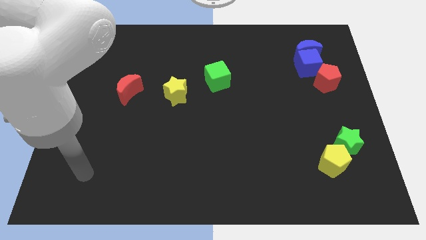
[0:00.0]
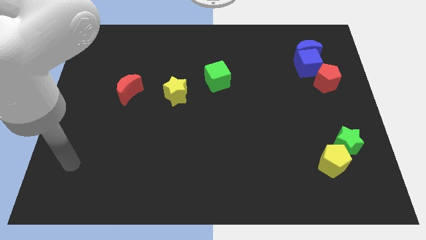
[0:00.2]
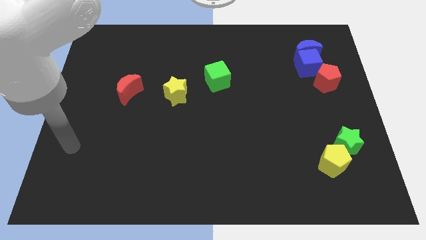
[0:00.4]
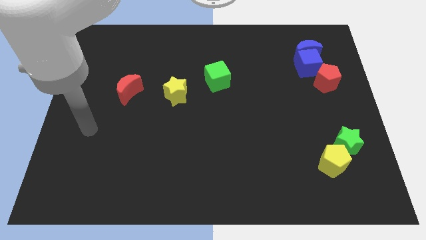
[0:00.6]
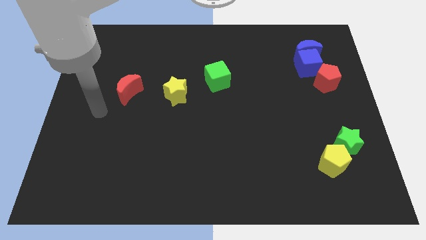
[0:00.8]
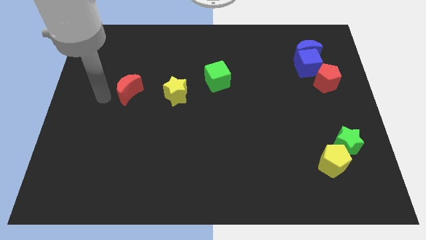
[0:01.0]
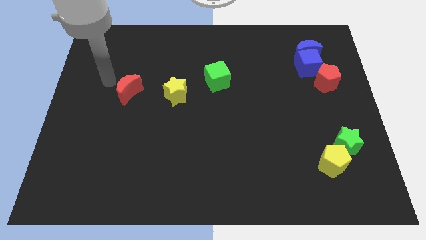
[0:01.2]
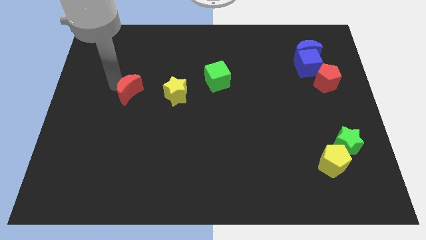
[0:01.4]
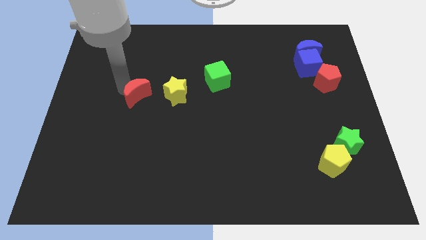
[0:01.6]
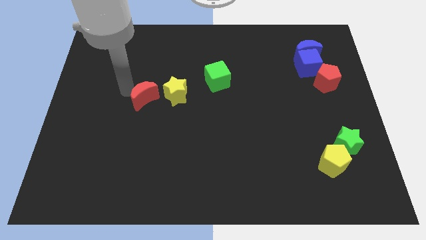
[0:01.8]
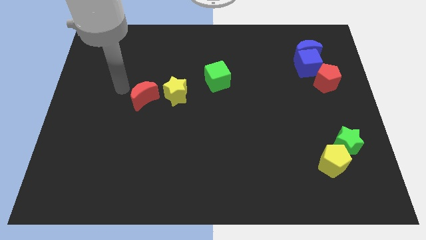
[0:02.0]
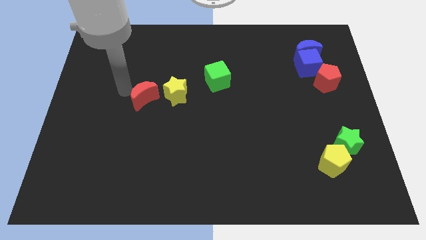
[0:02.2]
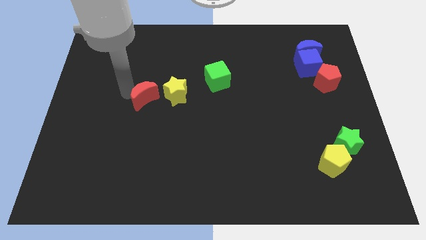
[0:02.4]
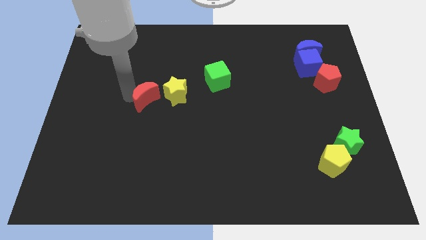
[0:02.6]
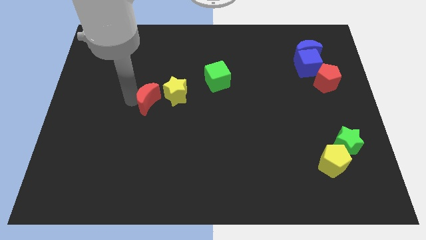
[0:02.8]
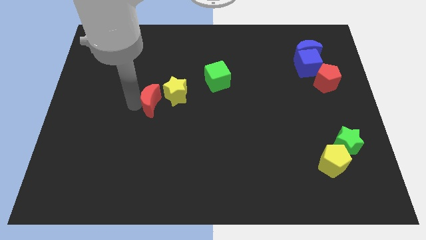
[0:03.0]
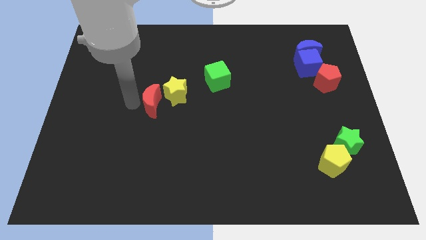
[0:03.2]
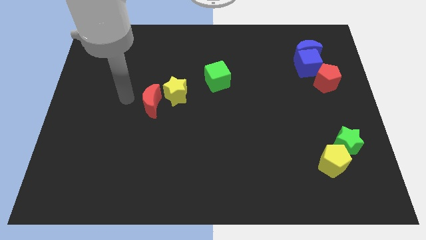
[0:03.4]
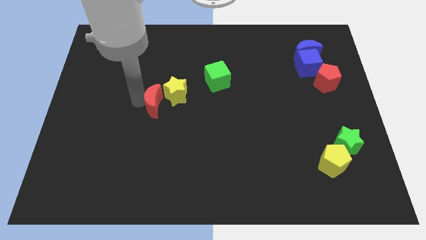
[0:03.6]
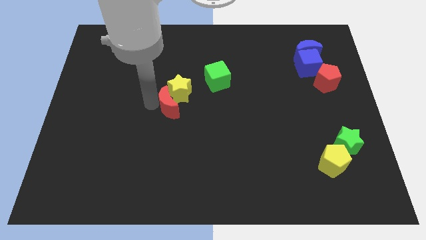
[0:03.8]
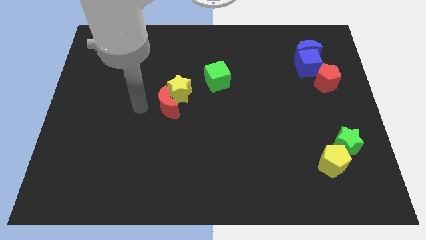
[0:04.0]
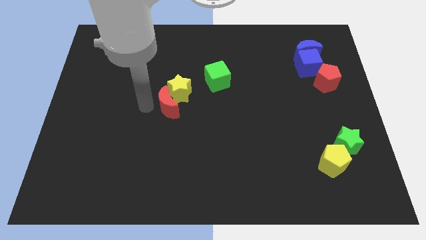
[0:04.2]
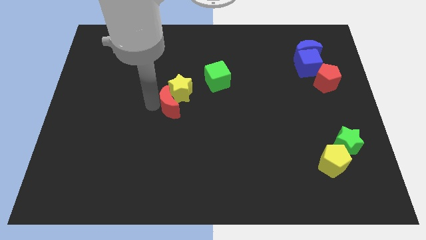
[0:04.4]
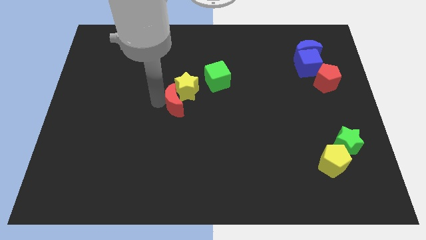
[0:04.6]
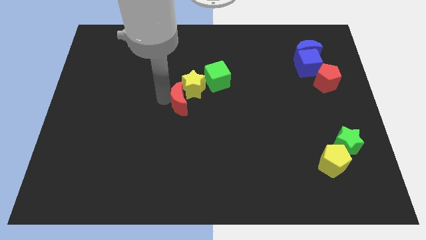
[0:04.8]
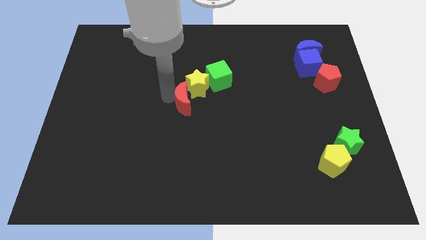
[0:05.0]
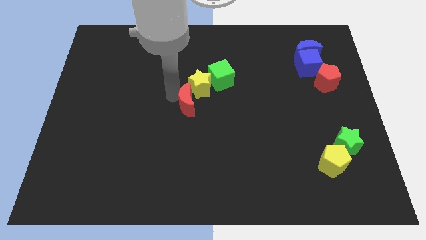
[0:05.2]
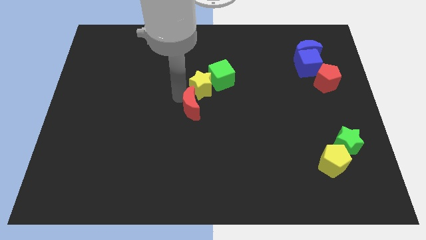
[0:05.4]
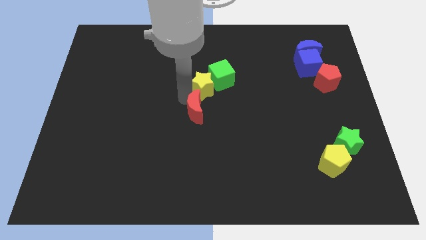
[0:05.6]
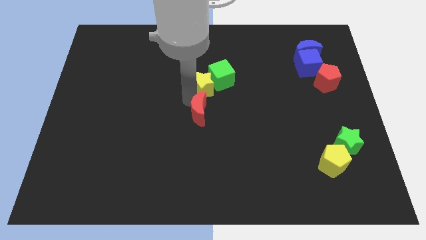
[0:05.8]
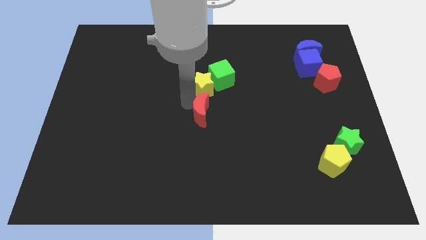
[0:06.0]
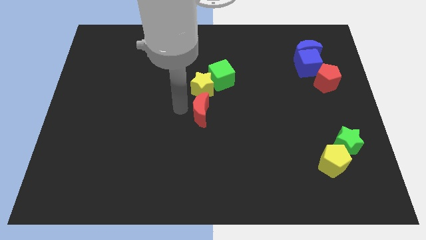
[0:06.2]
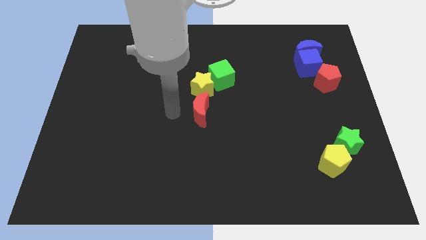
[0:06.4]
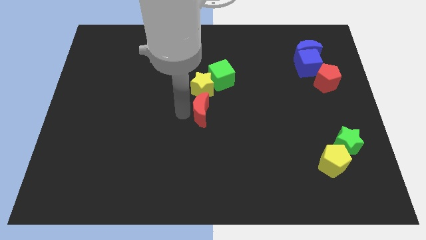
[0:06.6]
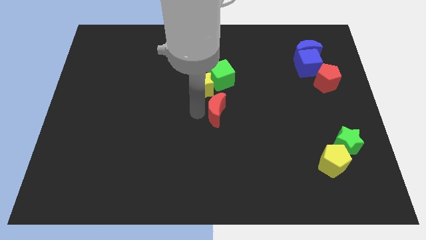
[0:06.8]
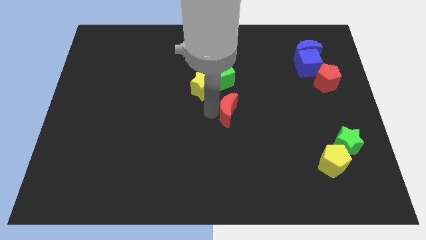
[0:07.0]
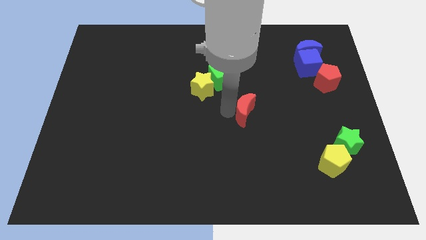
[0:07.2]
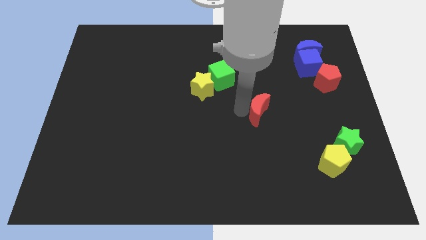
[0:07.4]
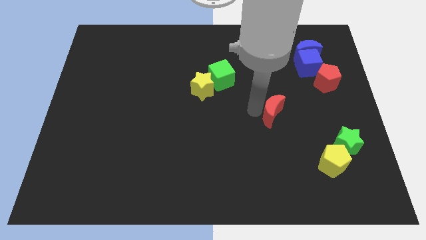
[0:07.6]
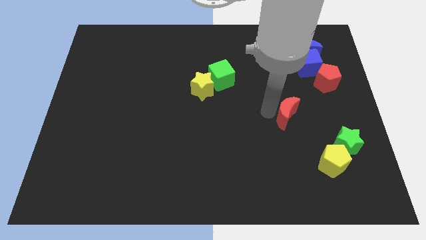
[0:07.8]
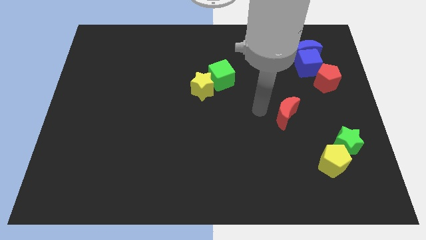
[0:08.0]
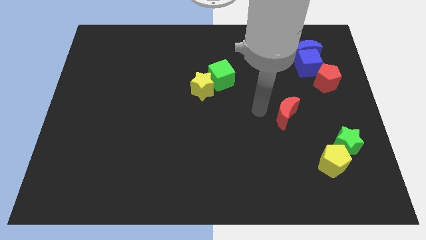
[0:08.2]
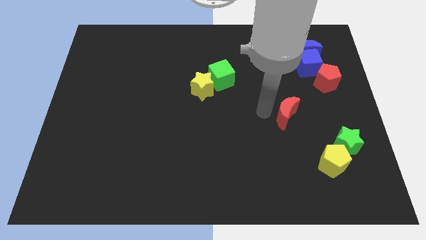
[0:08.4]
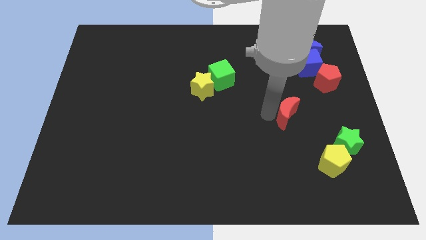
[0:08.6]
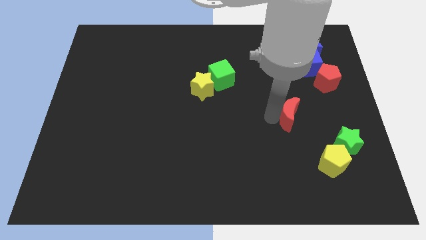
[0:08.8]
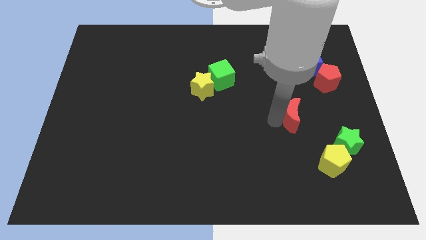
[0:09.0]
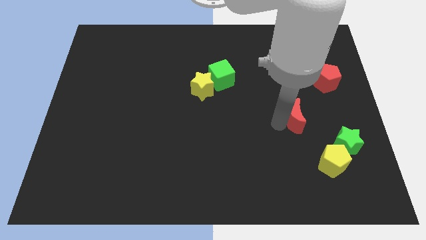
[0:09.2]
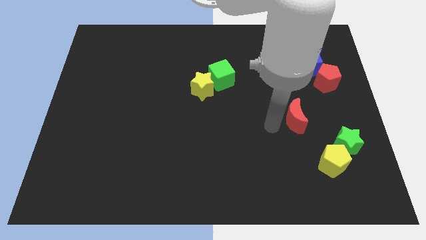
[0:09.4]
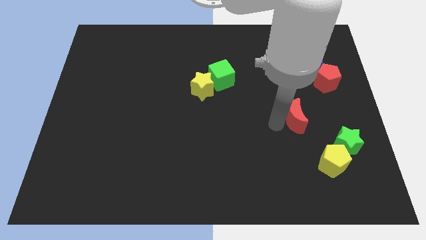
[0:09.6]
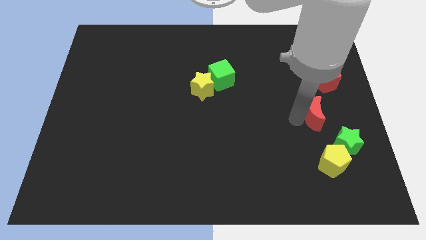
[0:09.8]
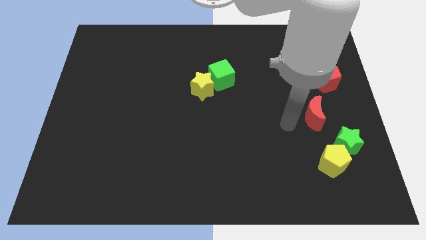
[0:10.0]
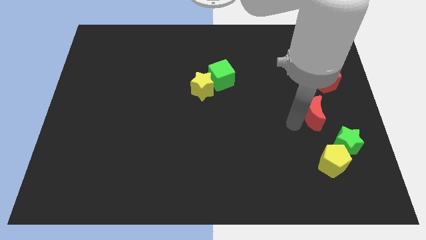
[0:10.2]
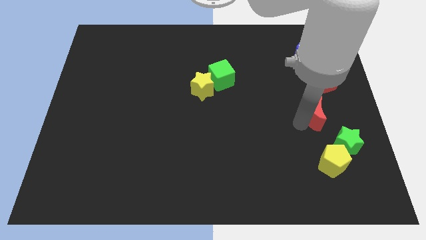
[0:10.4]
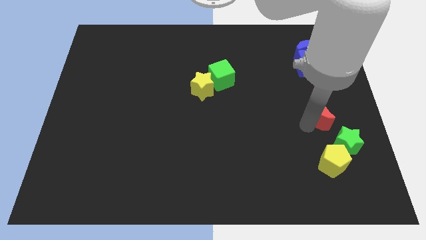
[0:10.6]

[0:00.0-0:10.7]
slide the red moon to the top side of the green star

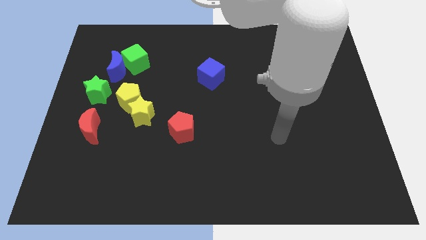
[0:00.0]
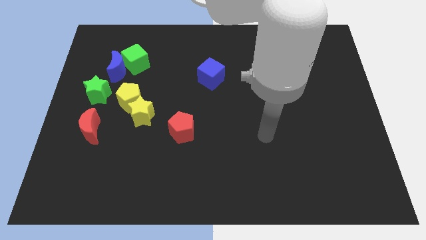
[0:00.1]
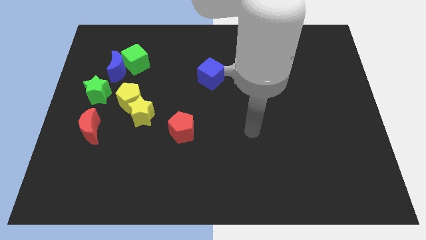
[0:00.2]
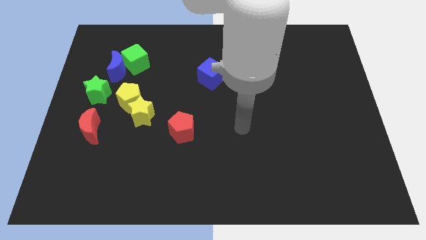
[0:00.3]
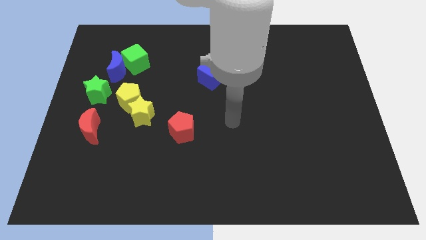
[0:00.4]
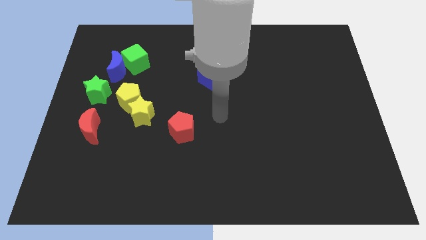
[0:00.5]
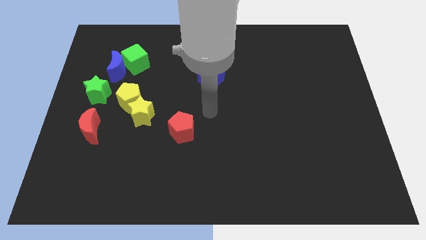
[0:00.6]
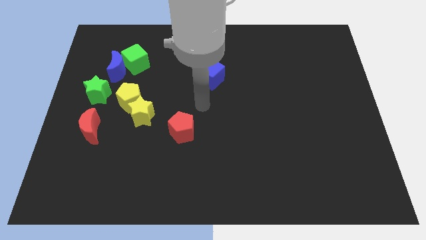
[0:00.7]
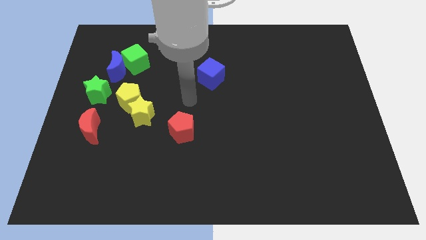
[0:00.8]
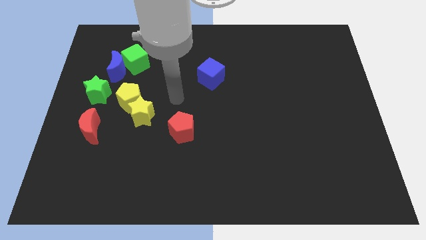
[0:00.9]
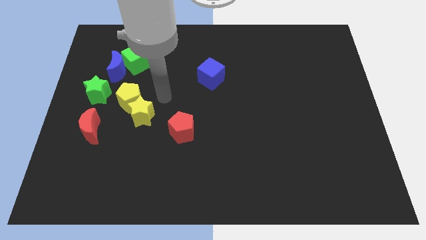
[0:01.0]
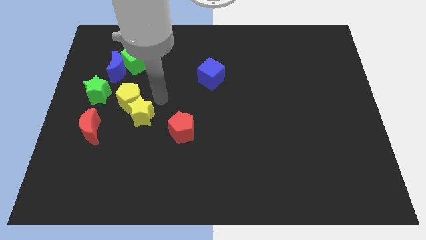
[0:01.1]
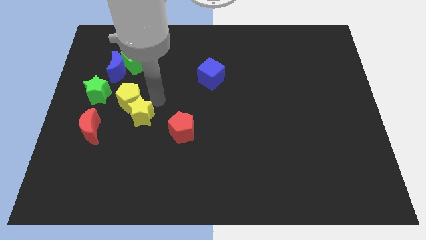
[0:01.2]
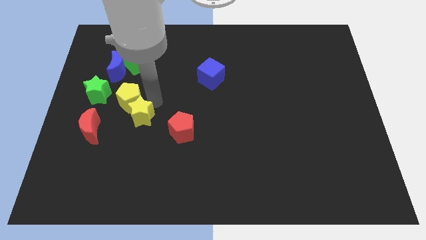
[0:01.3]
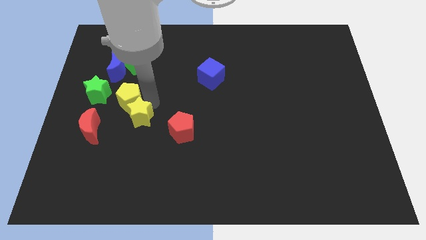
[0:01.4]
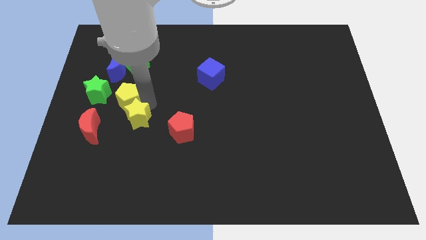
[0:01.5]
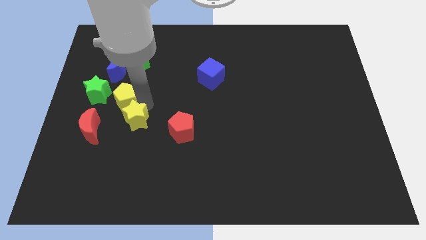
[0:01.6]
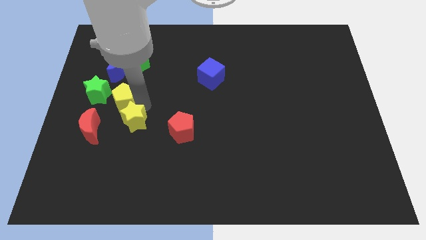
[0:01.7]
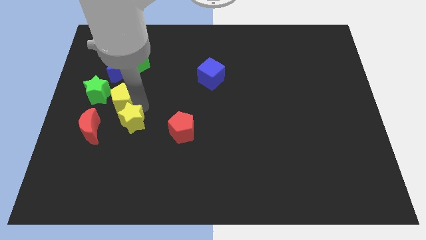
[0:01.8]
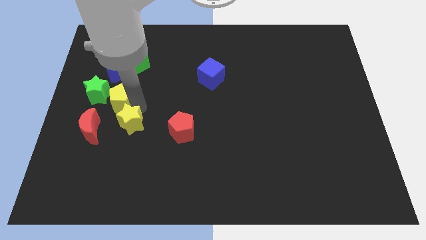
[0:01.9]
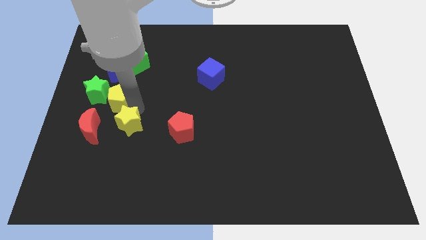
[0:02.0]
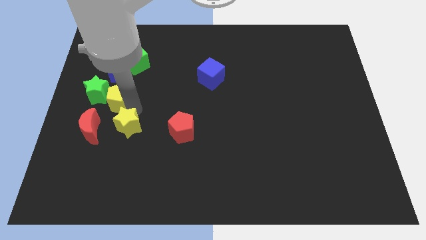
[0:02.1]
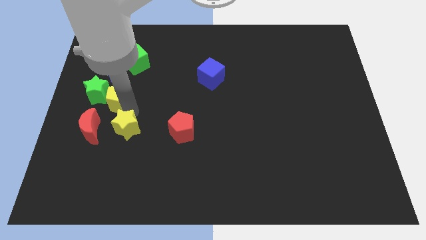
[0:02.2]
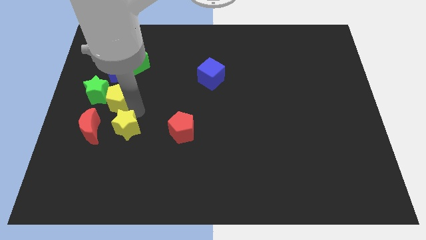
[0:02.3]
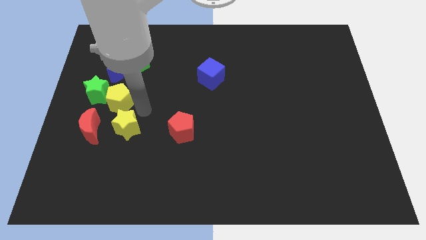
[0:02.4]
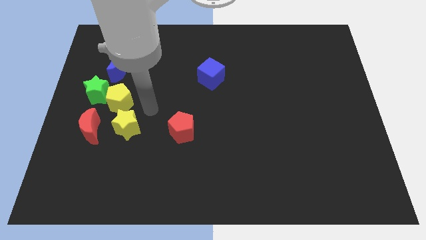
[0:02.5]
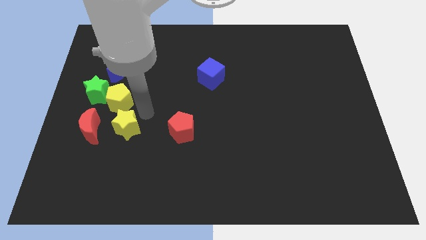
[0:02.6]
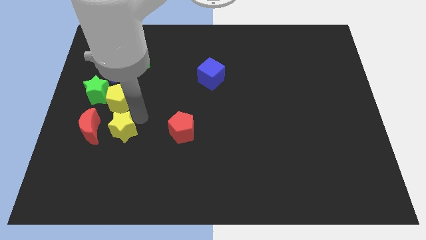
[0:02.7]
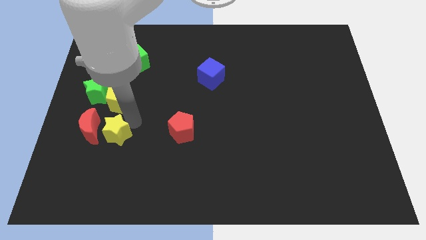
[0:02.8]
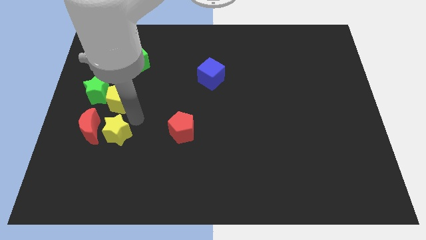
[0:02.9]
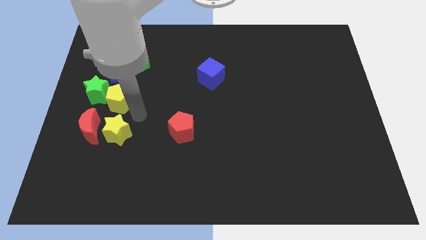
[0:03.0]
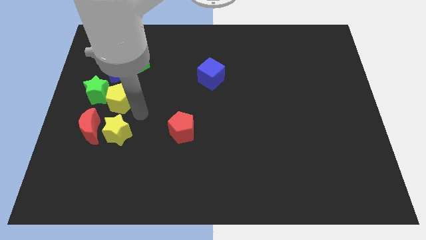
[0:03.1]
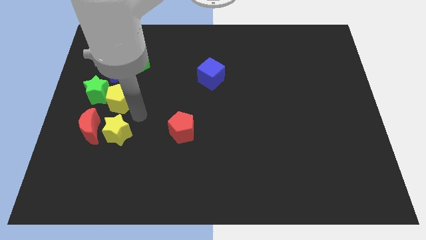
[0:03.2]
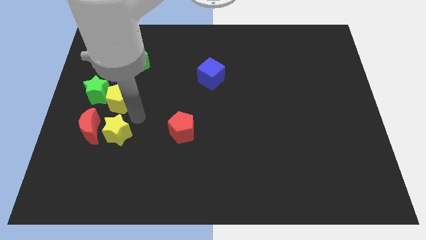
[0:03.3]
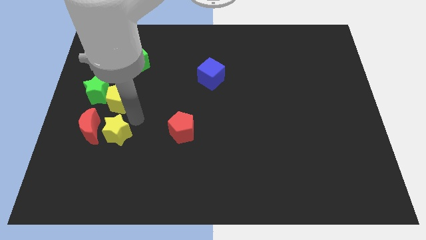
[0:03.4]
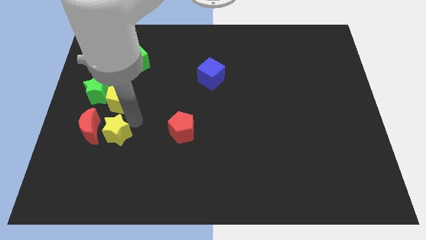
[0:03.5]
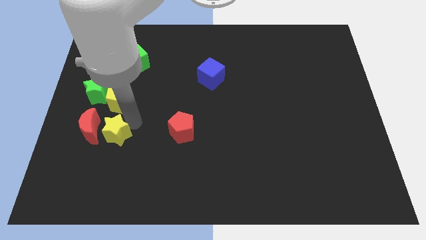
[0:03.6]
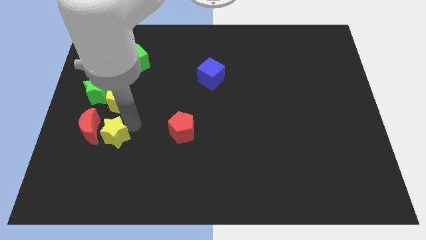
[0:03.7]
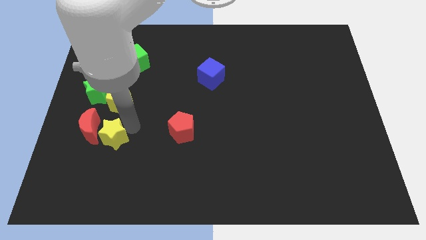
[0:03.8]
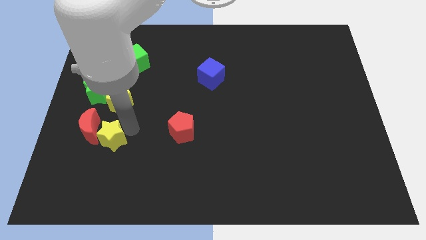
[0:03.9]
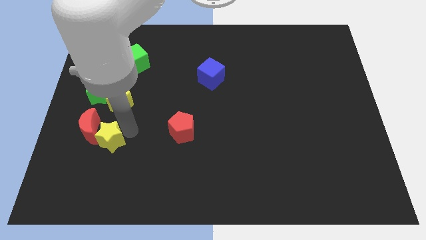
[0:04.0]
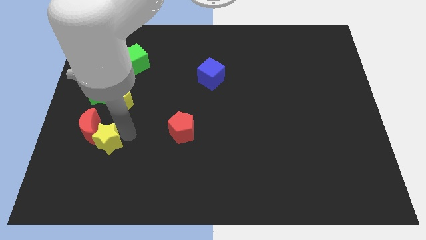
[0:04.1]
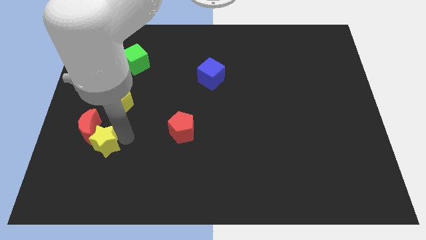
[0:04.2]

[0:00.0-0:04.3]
put the yellow star below the red moon
